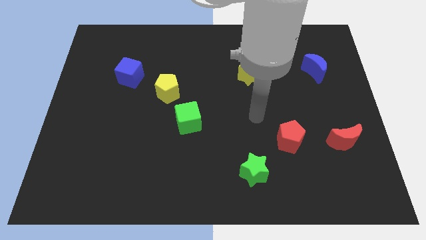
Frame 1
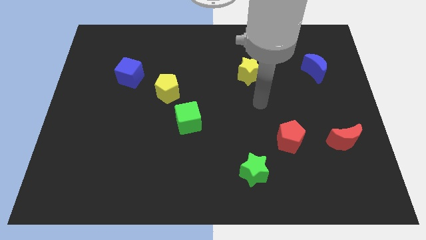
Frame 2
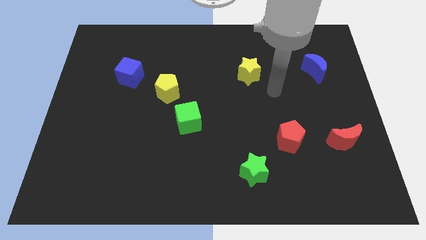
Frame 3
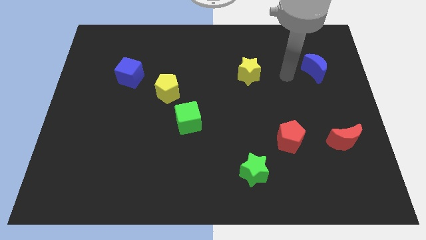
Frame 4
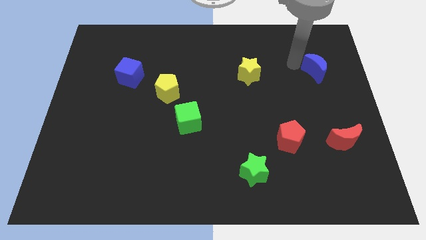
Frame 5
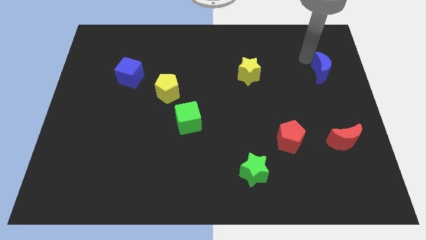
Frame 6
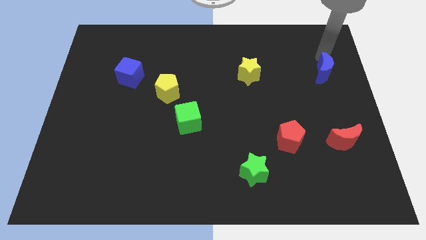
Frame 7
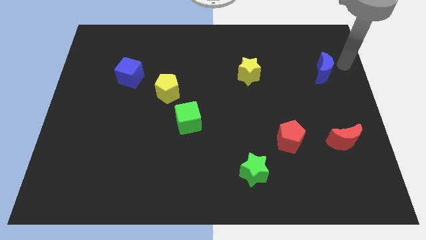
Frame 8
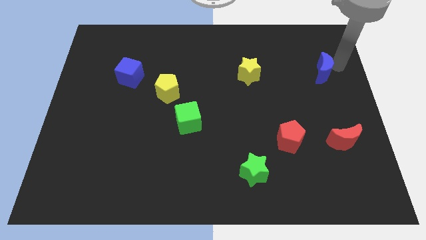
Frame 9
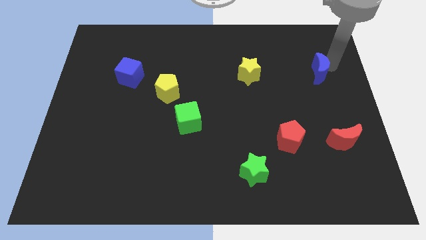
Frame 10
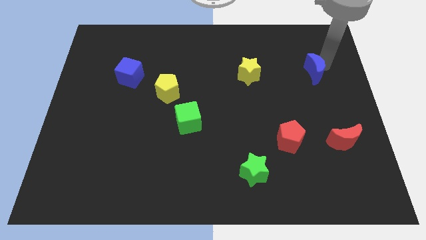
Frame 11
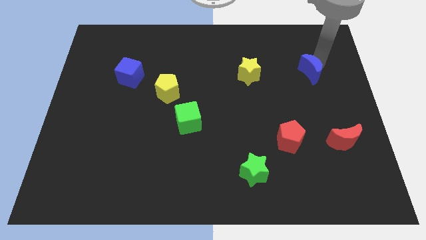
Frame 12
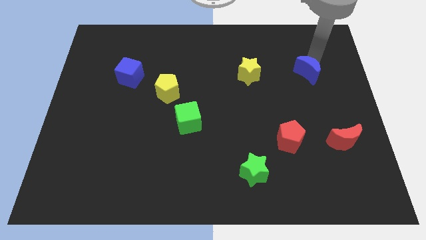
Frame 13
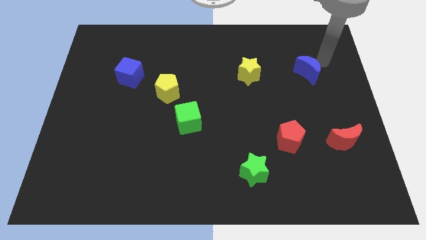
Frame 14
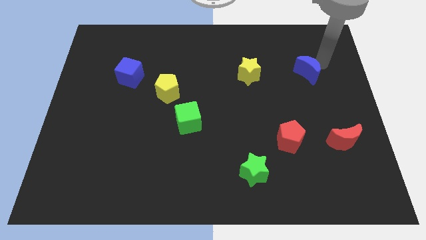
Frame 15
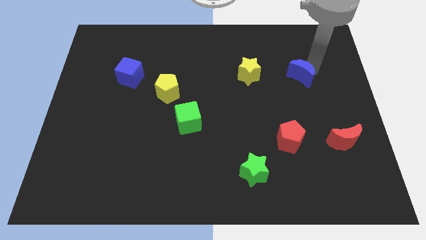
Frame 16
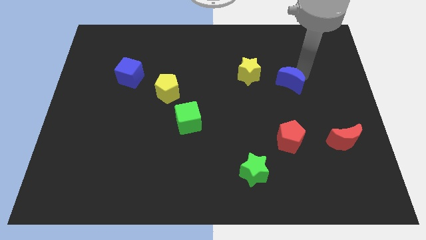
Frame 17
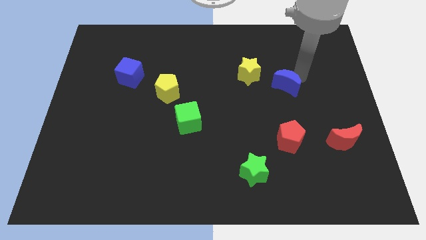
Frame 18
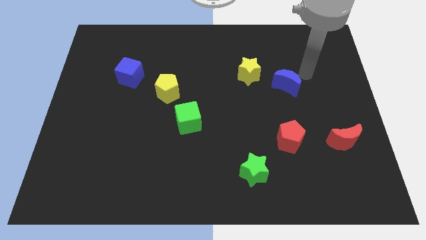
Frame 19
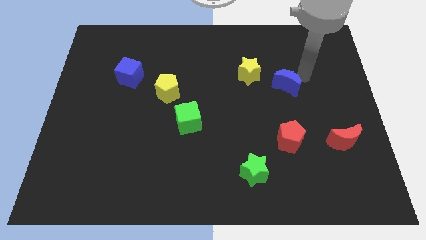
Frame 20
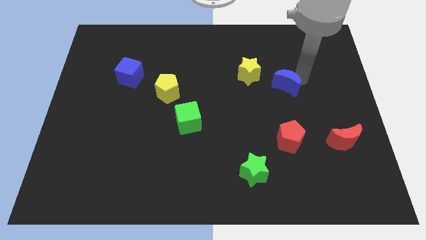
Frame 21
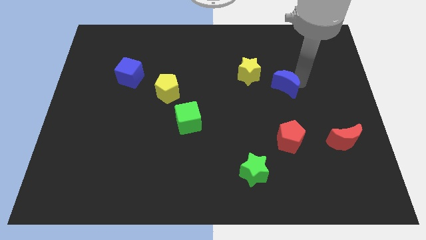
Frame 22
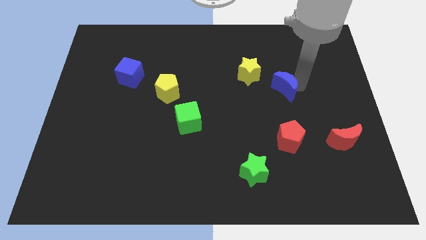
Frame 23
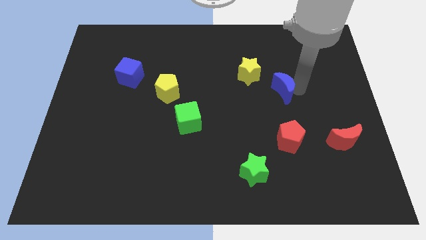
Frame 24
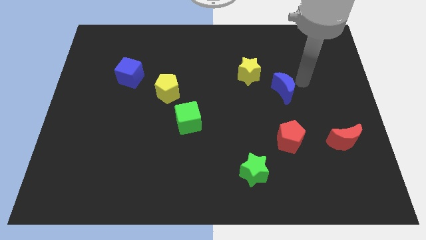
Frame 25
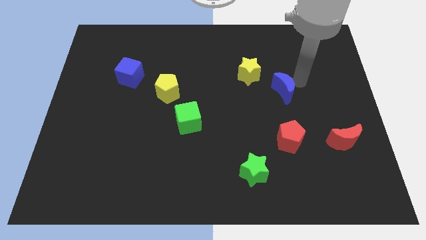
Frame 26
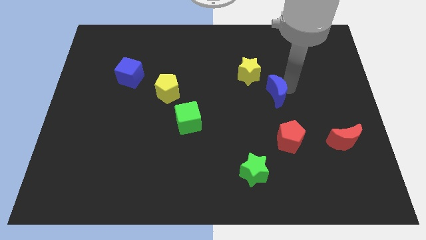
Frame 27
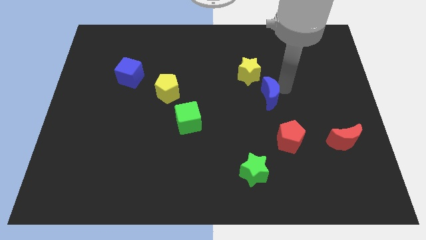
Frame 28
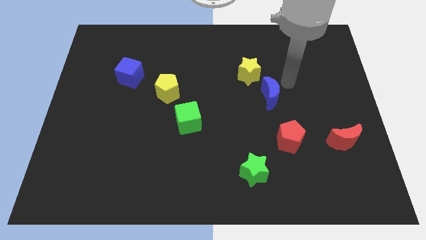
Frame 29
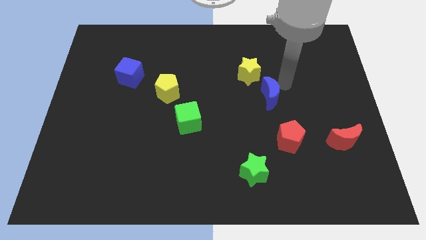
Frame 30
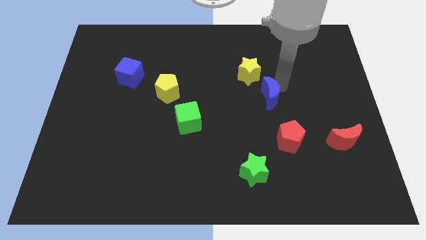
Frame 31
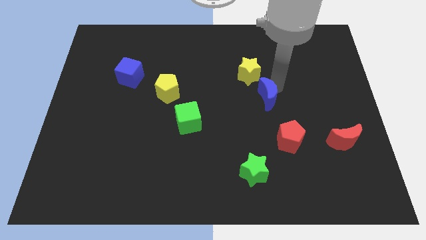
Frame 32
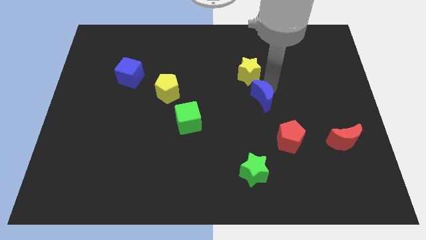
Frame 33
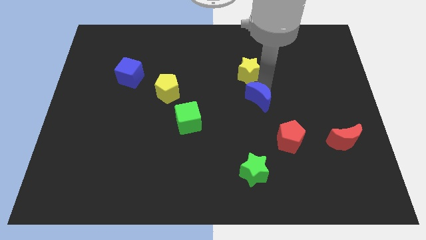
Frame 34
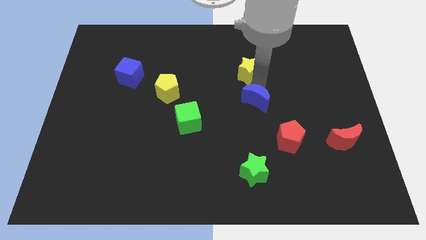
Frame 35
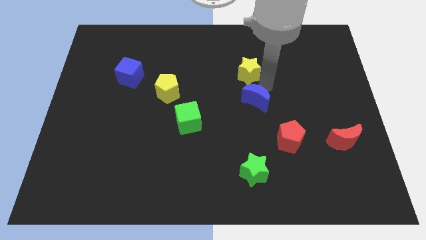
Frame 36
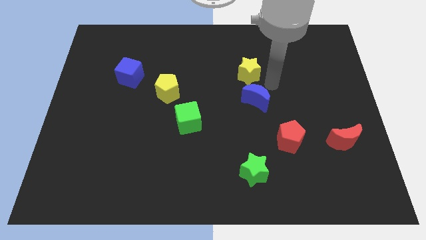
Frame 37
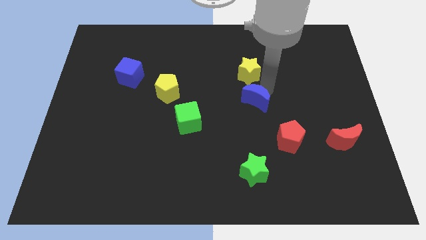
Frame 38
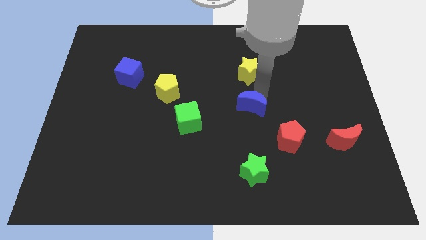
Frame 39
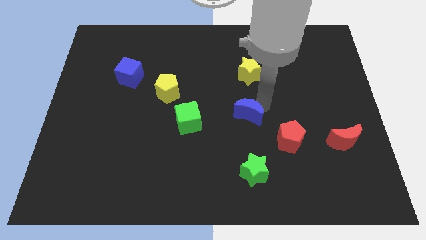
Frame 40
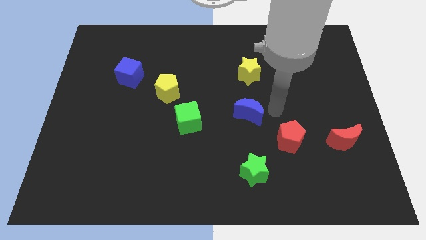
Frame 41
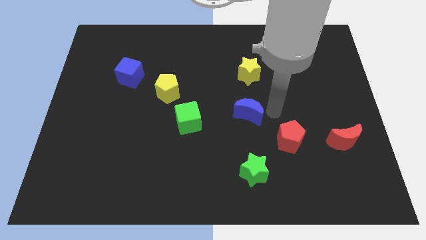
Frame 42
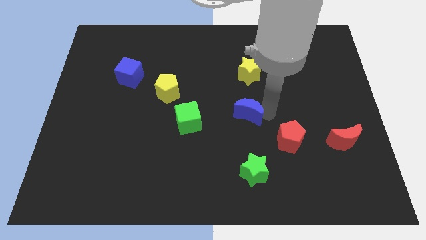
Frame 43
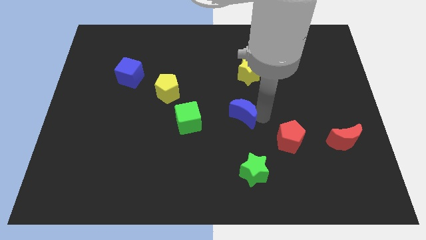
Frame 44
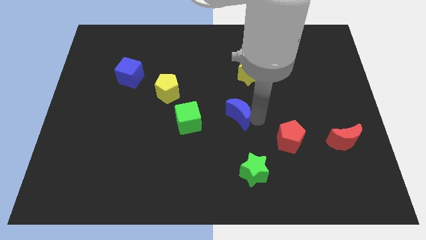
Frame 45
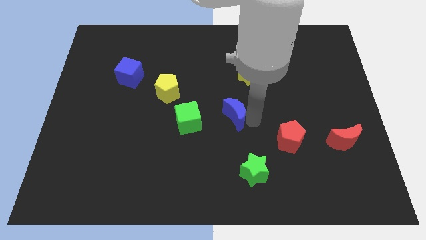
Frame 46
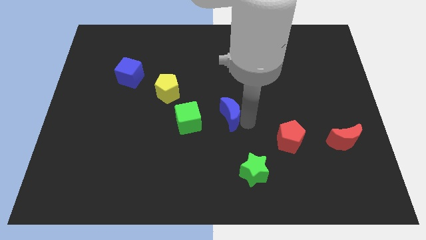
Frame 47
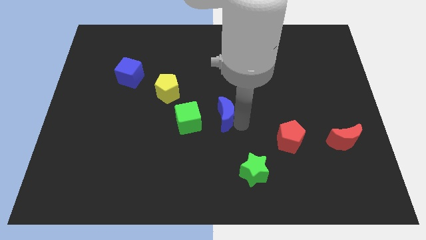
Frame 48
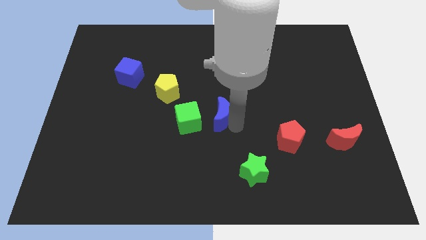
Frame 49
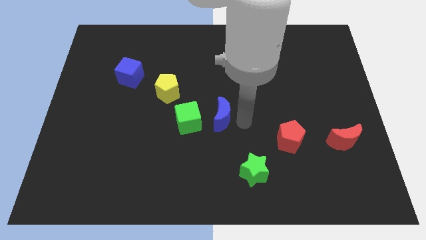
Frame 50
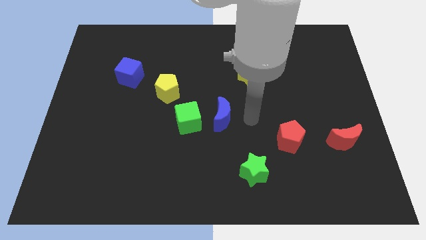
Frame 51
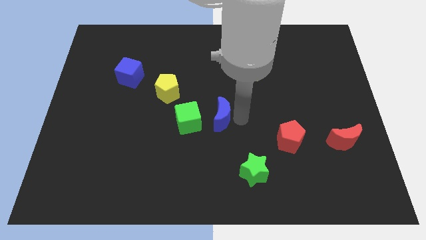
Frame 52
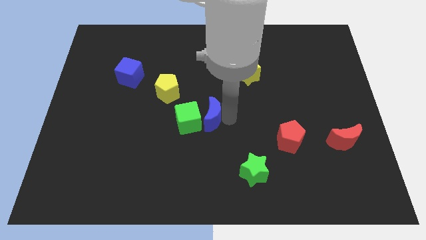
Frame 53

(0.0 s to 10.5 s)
slide the blue moon next to the green cube

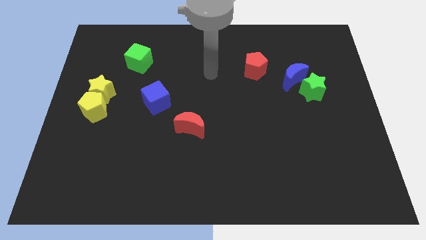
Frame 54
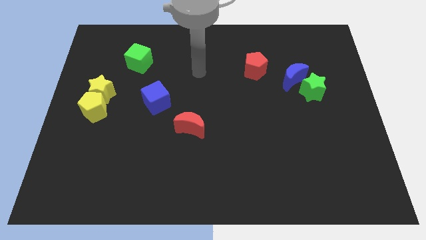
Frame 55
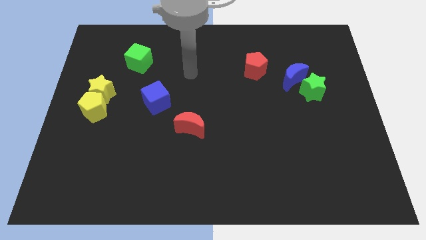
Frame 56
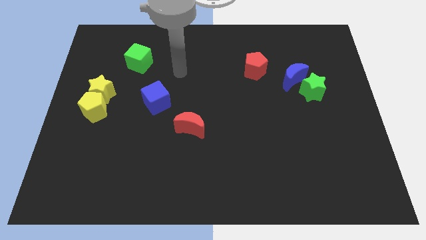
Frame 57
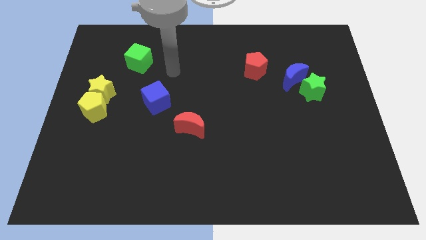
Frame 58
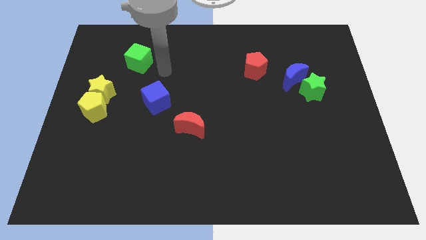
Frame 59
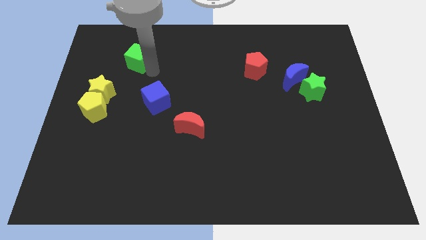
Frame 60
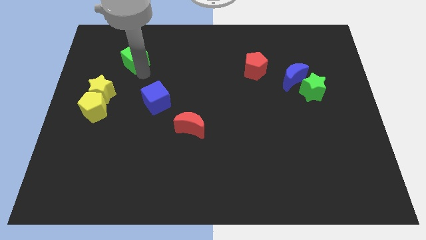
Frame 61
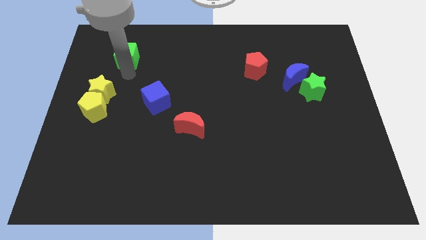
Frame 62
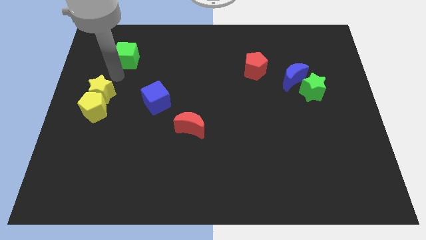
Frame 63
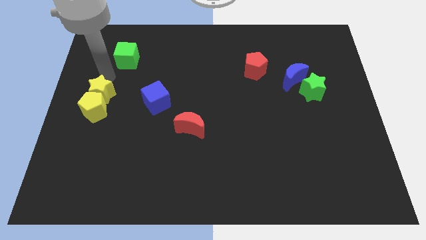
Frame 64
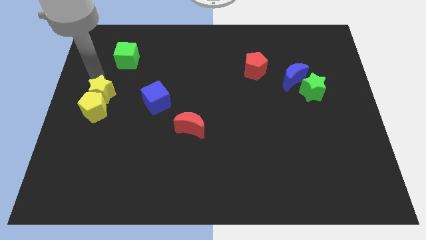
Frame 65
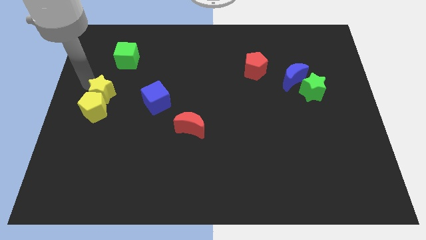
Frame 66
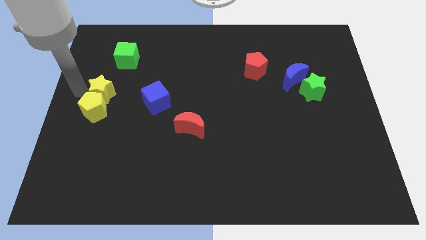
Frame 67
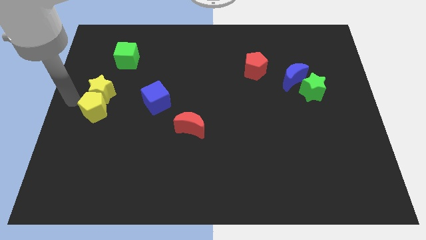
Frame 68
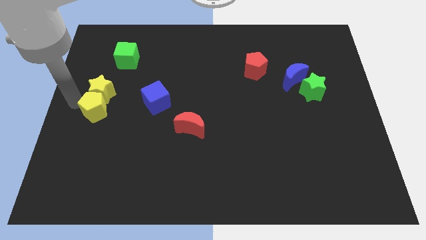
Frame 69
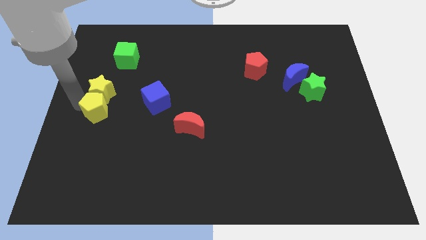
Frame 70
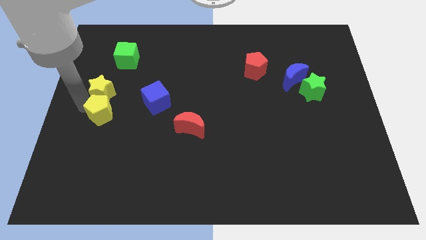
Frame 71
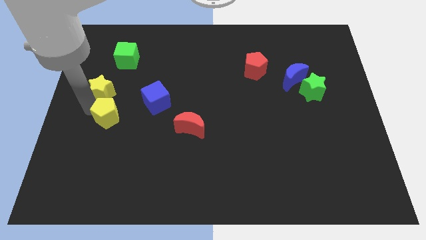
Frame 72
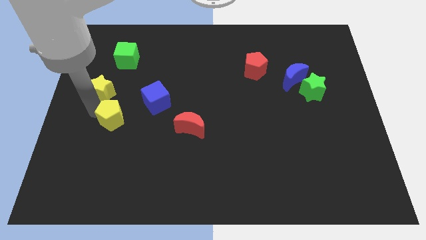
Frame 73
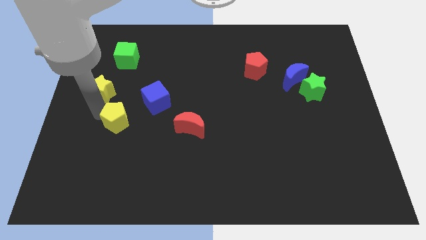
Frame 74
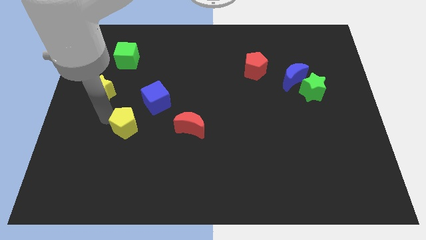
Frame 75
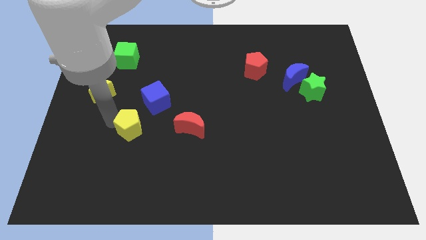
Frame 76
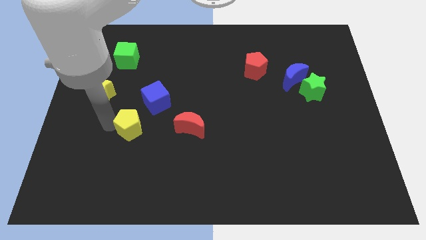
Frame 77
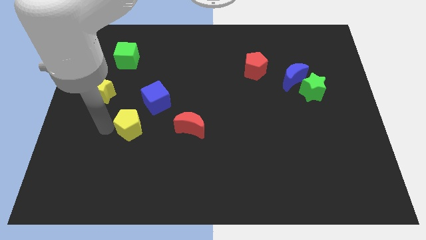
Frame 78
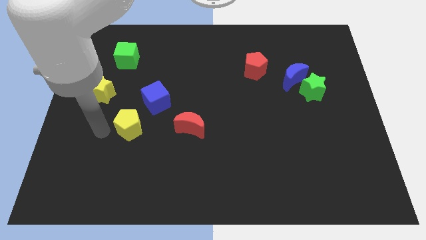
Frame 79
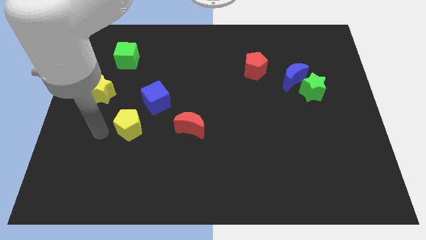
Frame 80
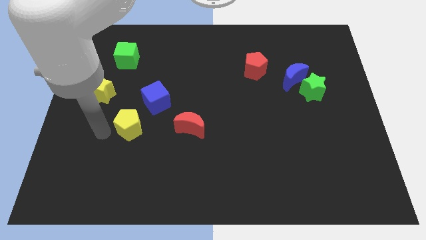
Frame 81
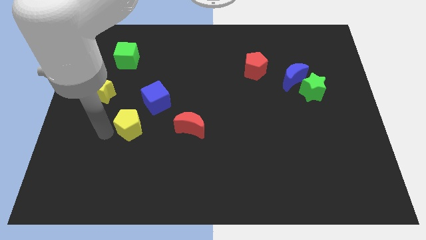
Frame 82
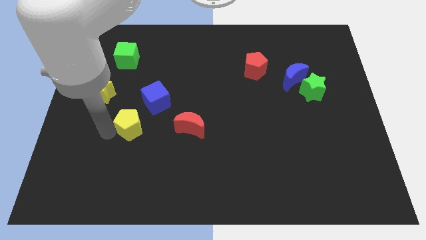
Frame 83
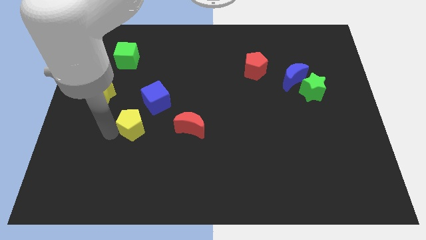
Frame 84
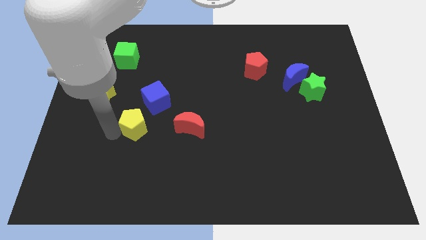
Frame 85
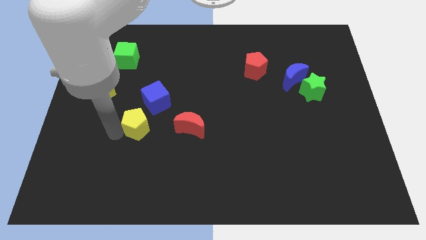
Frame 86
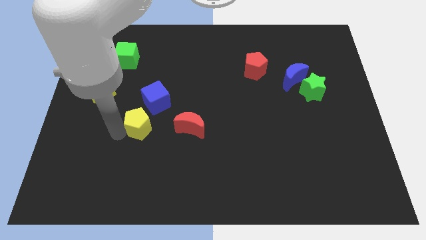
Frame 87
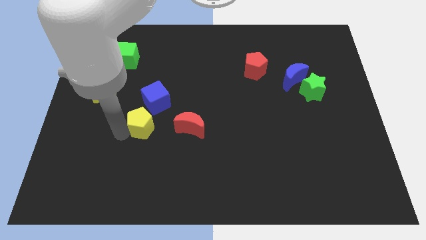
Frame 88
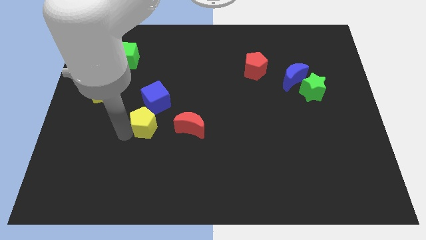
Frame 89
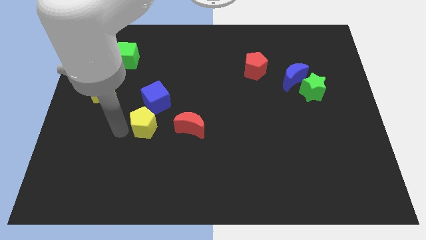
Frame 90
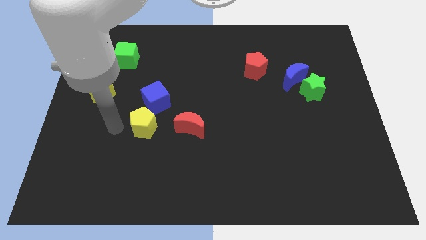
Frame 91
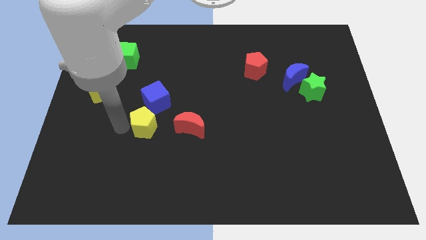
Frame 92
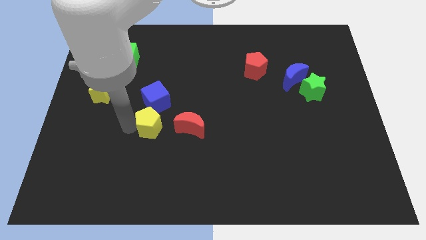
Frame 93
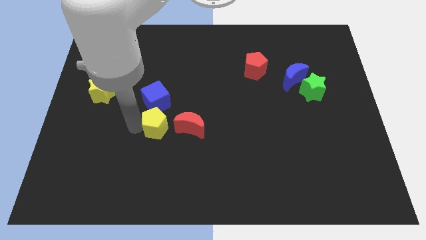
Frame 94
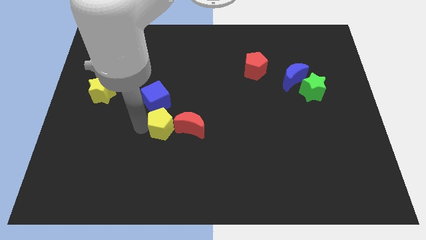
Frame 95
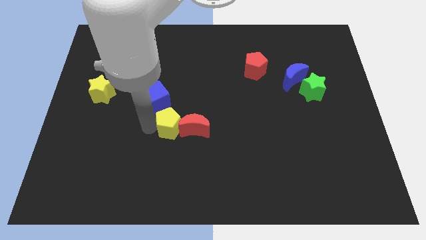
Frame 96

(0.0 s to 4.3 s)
slide the yellow pentagon to the red moon
